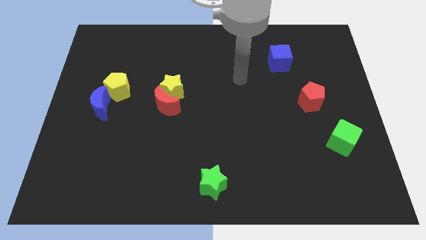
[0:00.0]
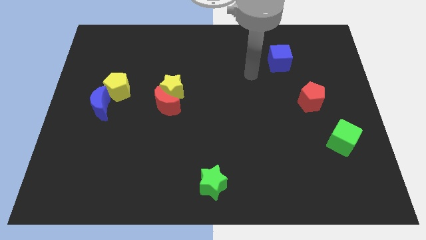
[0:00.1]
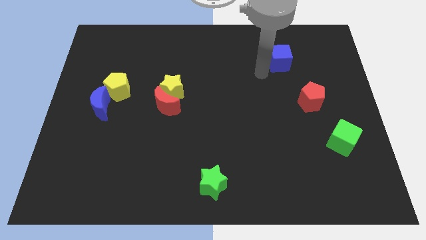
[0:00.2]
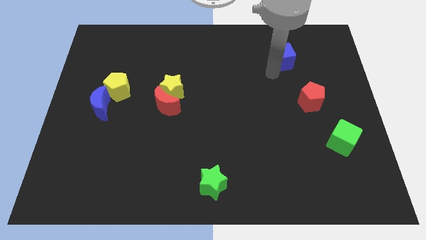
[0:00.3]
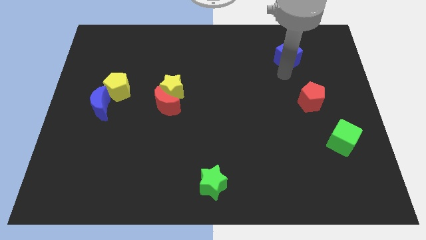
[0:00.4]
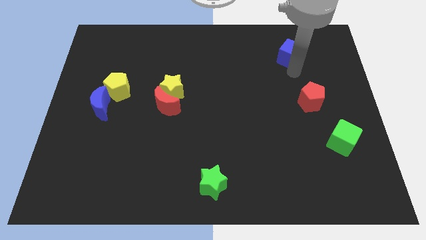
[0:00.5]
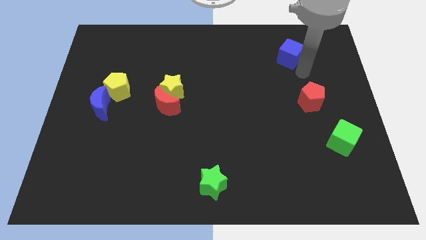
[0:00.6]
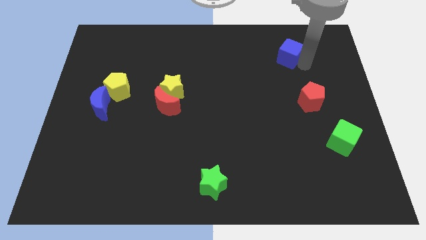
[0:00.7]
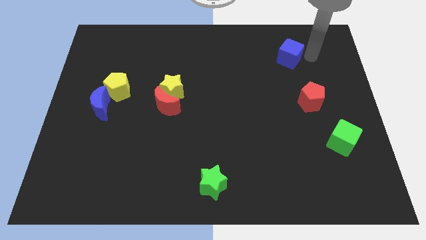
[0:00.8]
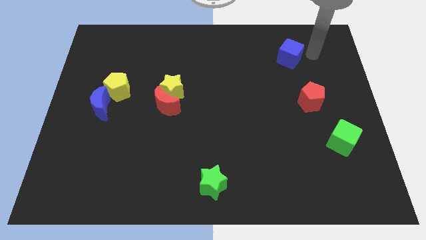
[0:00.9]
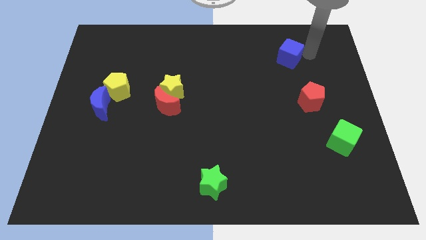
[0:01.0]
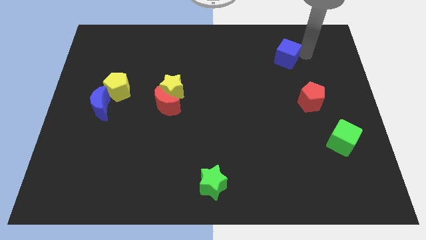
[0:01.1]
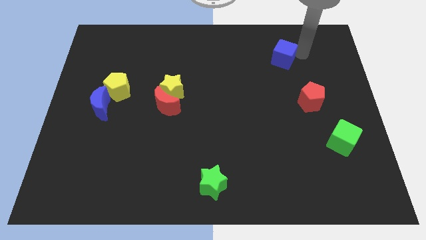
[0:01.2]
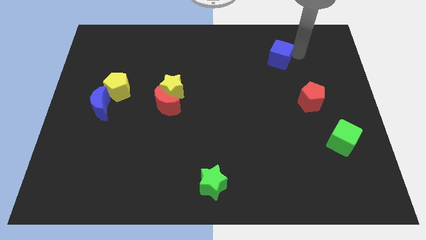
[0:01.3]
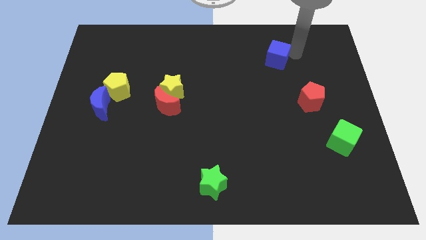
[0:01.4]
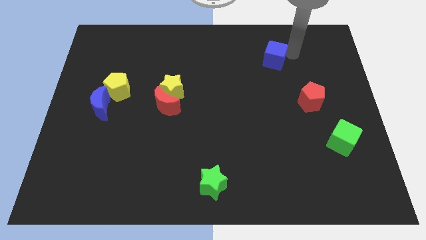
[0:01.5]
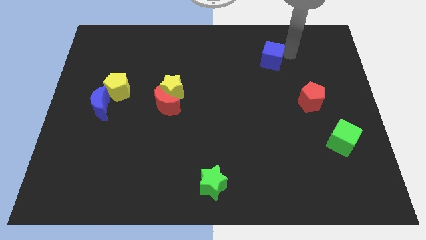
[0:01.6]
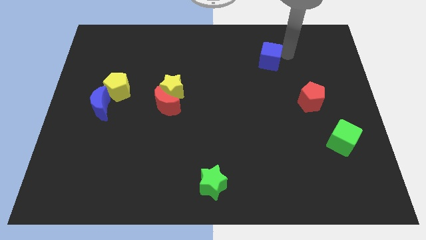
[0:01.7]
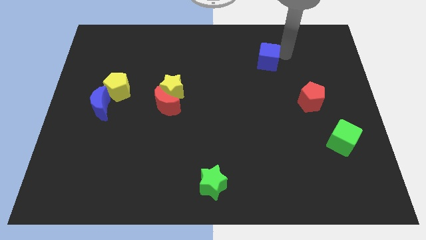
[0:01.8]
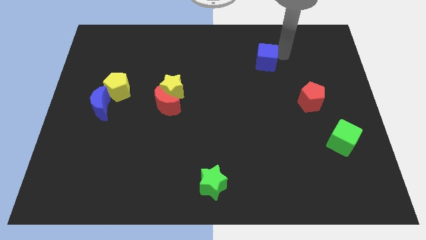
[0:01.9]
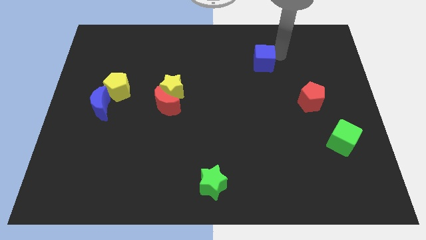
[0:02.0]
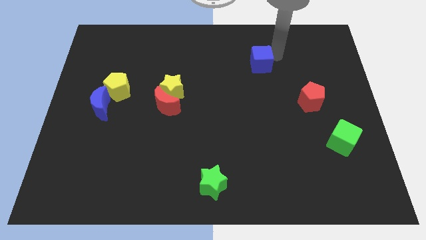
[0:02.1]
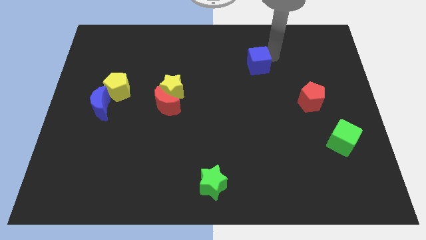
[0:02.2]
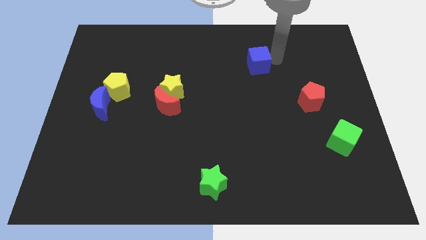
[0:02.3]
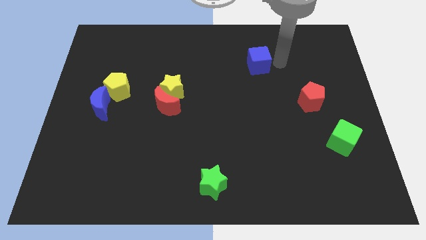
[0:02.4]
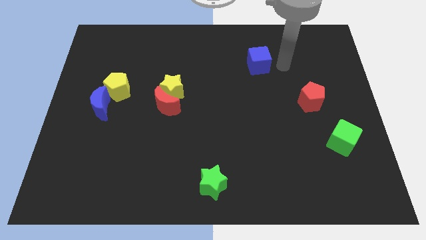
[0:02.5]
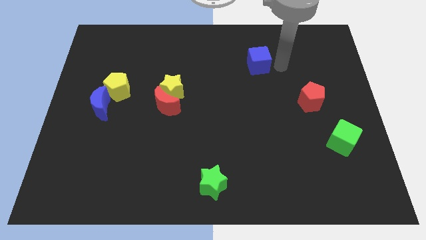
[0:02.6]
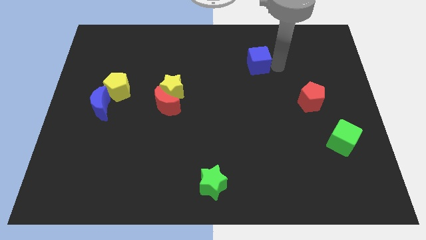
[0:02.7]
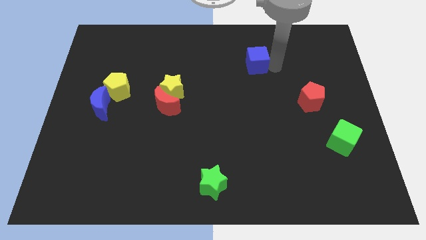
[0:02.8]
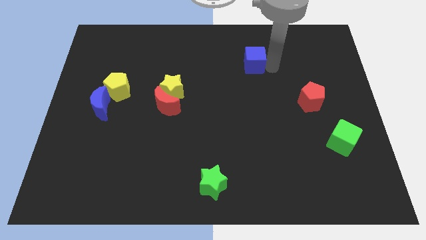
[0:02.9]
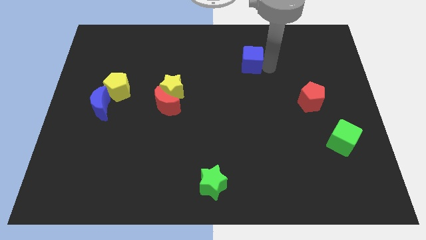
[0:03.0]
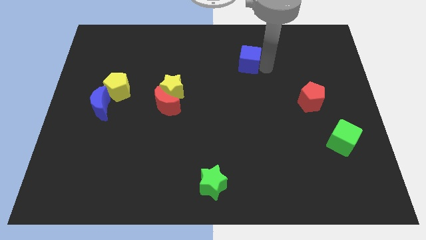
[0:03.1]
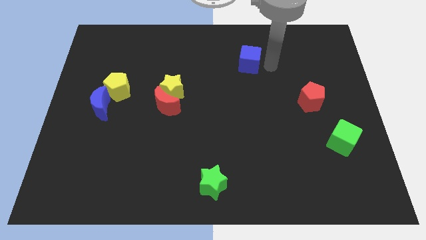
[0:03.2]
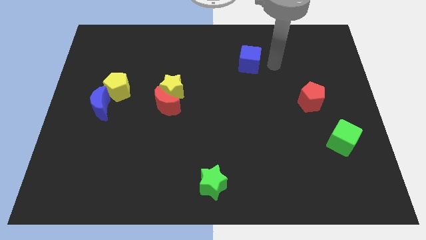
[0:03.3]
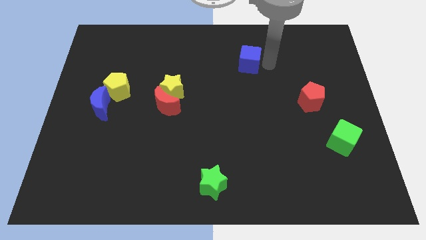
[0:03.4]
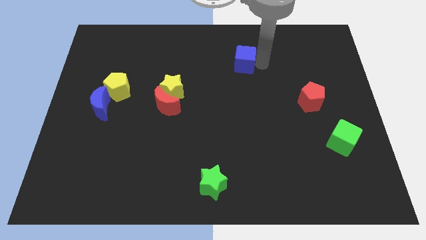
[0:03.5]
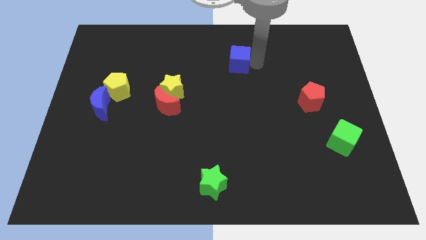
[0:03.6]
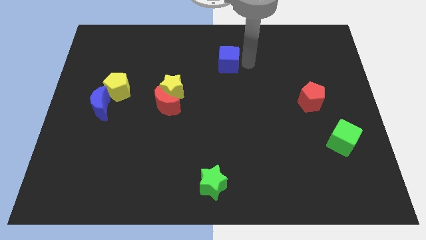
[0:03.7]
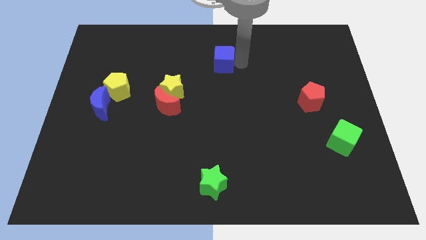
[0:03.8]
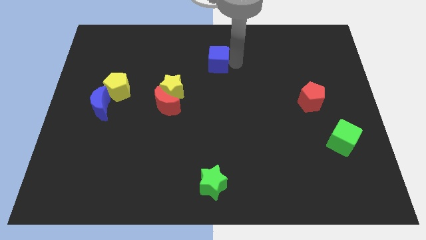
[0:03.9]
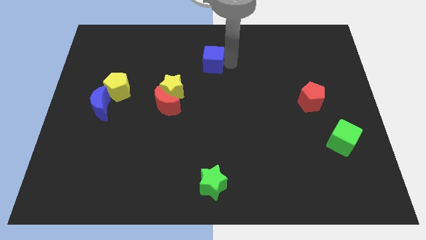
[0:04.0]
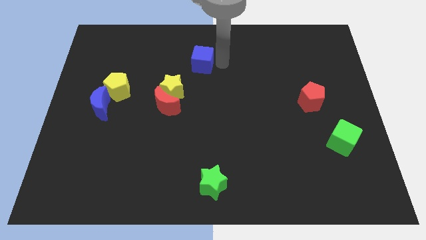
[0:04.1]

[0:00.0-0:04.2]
slide the blue cube to the left

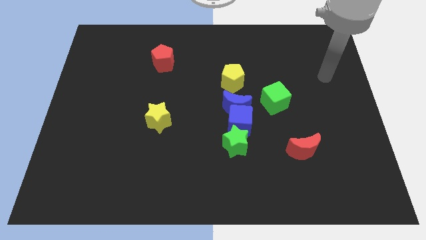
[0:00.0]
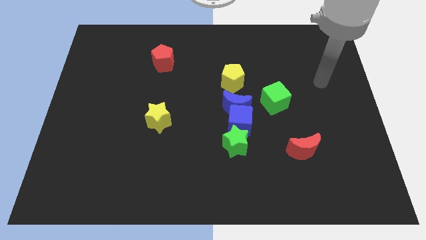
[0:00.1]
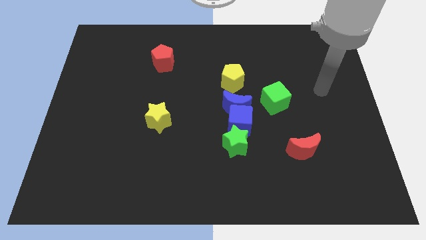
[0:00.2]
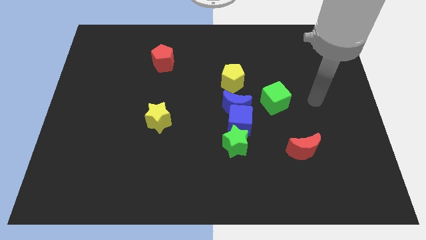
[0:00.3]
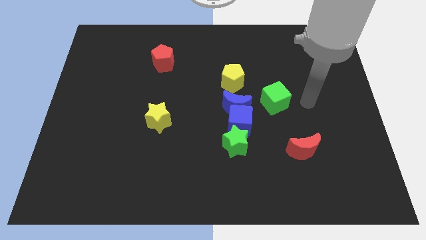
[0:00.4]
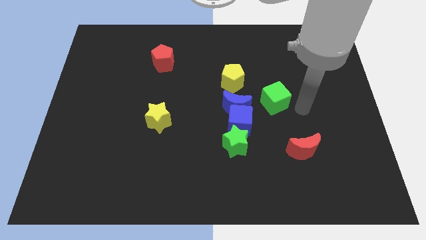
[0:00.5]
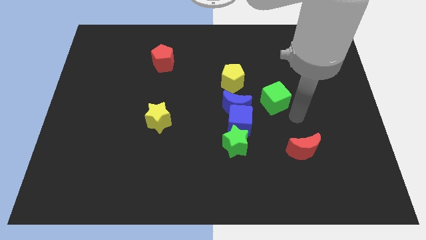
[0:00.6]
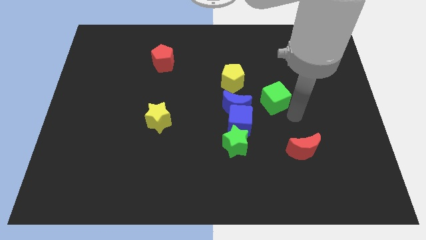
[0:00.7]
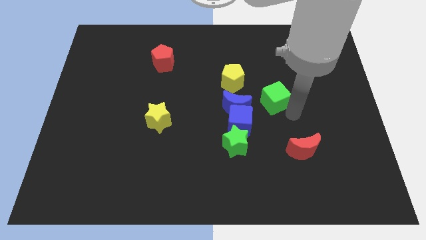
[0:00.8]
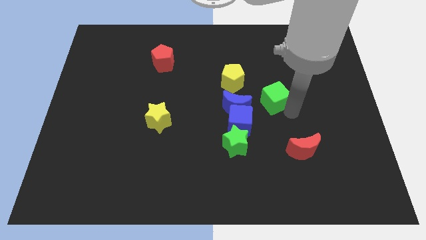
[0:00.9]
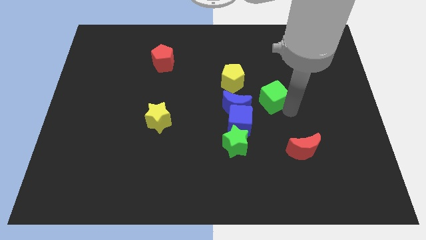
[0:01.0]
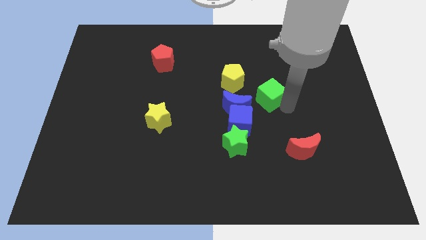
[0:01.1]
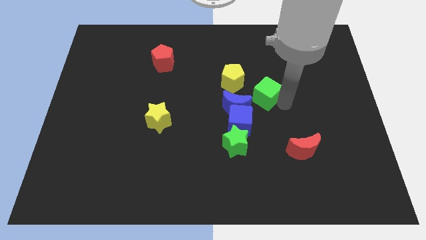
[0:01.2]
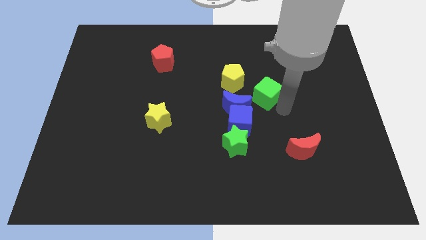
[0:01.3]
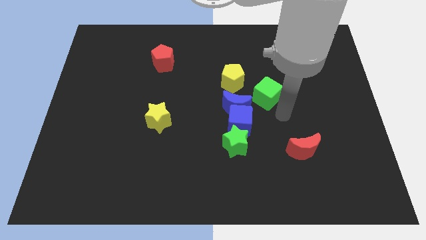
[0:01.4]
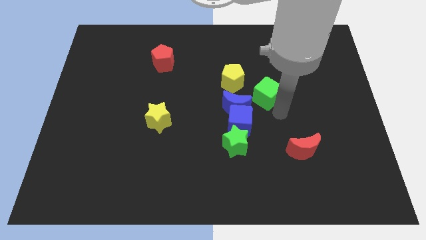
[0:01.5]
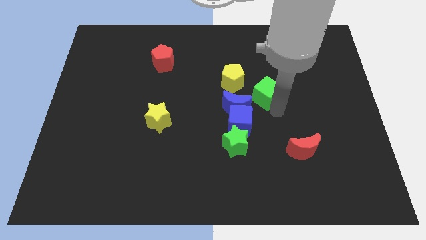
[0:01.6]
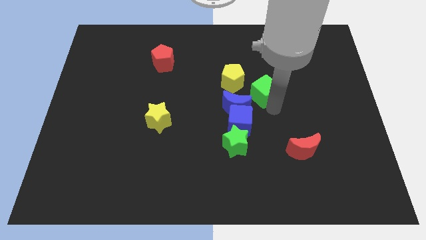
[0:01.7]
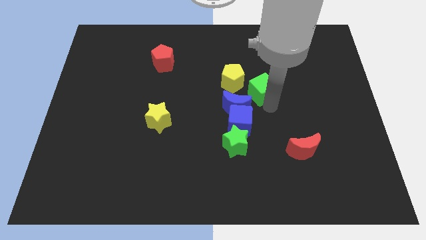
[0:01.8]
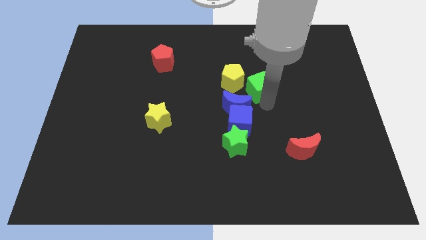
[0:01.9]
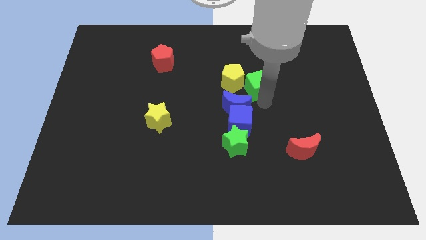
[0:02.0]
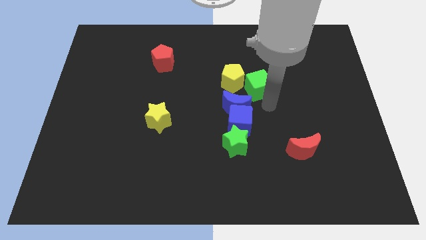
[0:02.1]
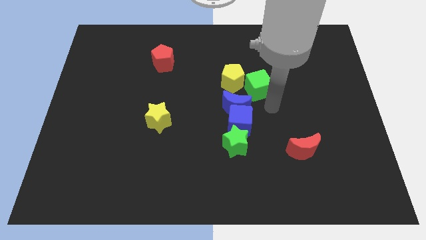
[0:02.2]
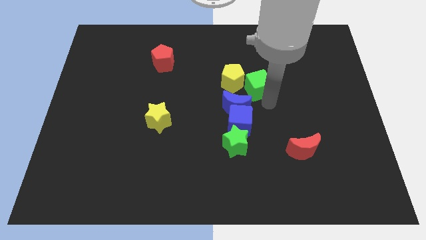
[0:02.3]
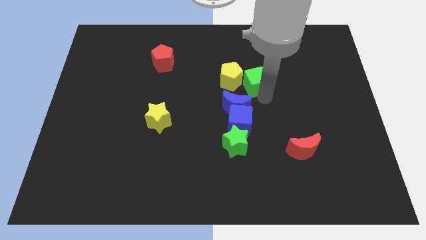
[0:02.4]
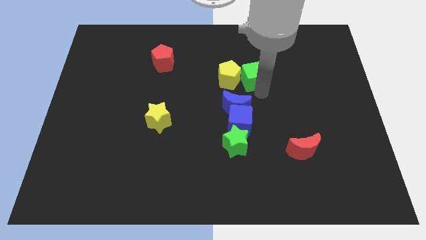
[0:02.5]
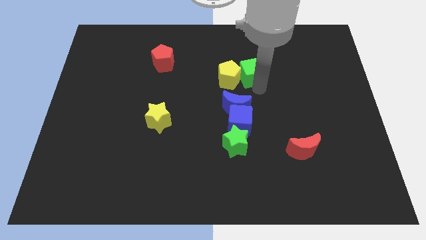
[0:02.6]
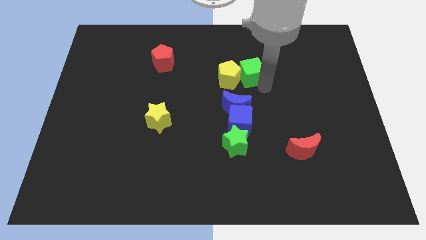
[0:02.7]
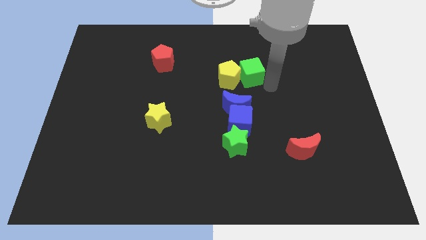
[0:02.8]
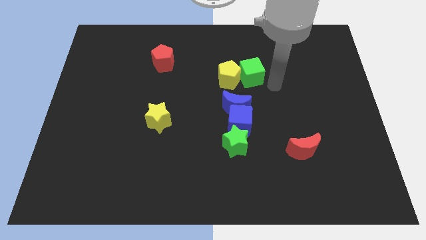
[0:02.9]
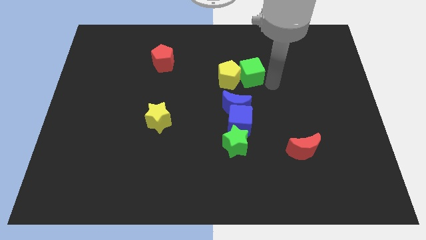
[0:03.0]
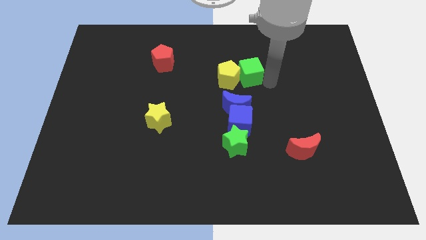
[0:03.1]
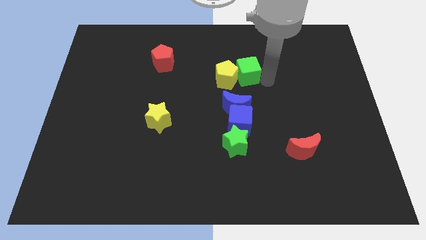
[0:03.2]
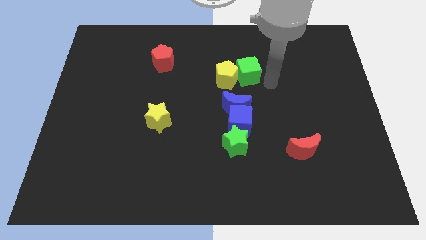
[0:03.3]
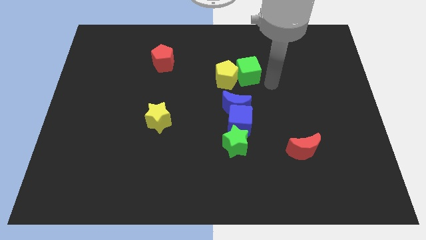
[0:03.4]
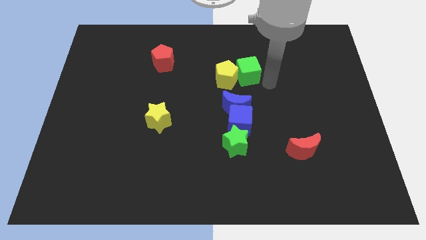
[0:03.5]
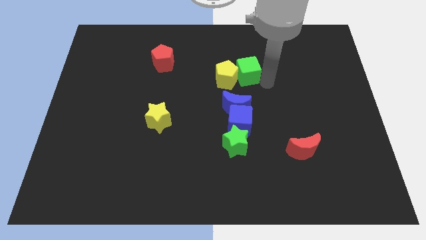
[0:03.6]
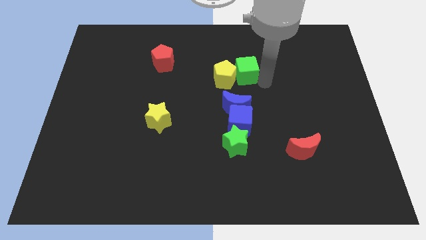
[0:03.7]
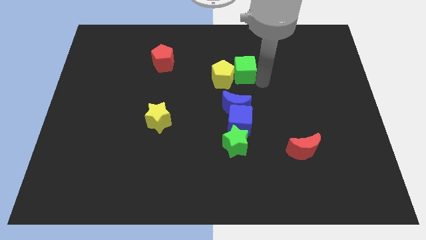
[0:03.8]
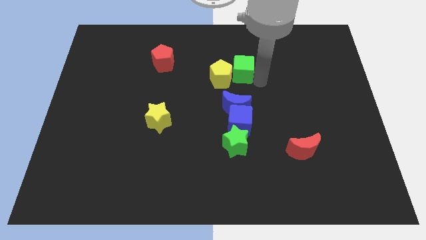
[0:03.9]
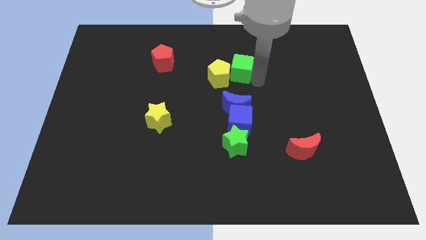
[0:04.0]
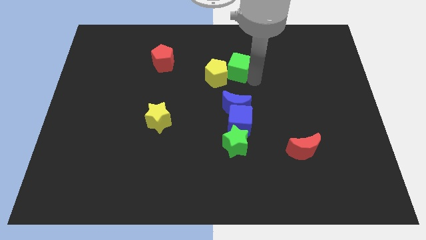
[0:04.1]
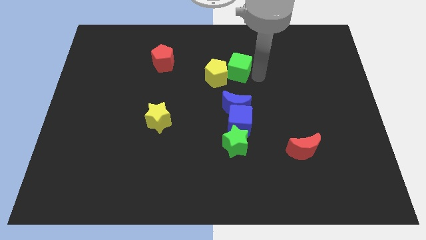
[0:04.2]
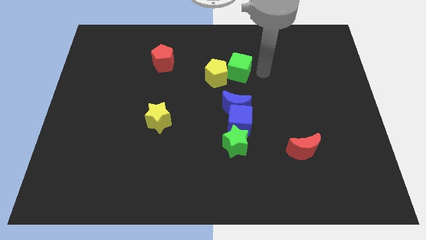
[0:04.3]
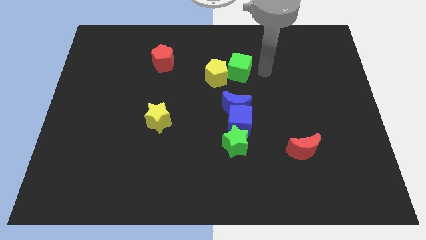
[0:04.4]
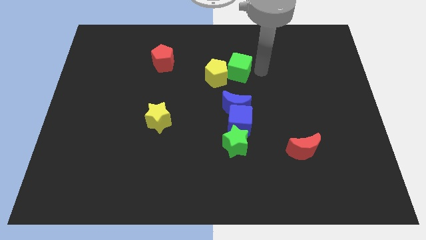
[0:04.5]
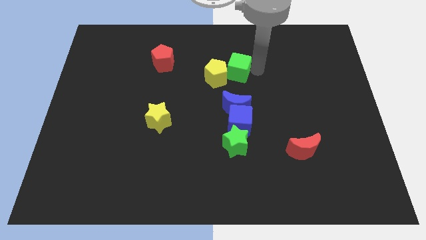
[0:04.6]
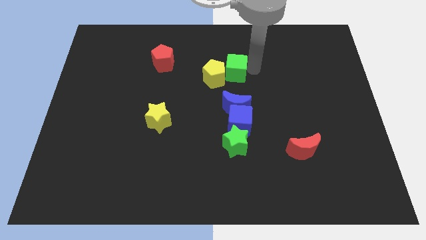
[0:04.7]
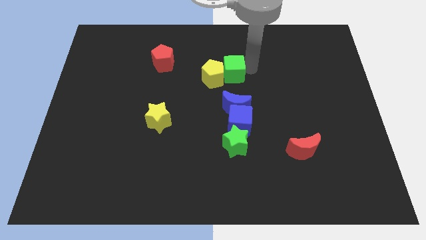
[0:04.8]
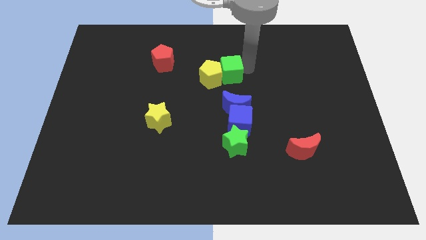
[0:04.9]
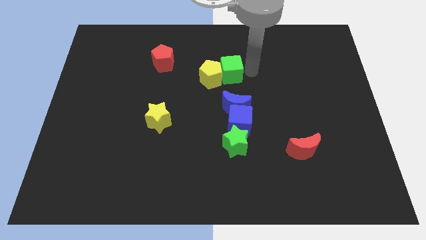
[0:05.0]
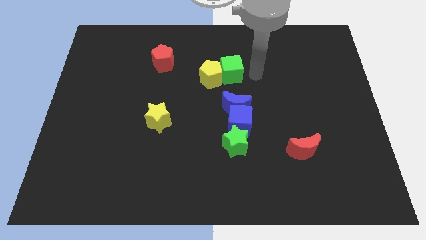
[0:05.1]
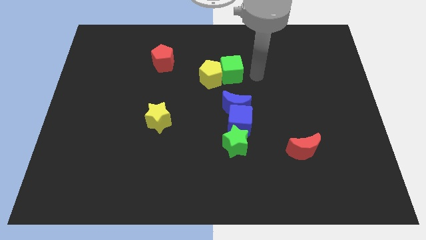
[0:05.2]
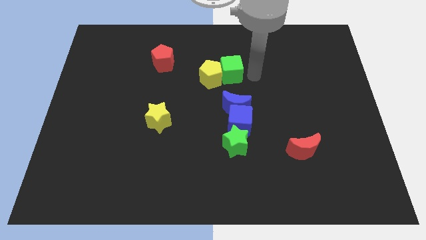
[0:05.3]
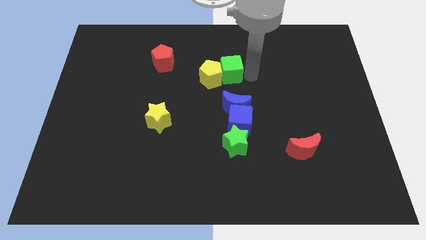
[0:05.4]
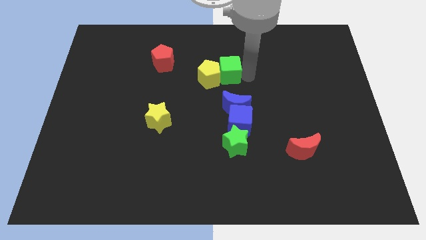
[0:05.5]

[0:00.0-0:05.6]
push the green cube left somewhat
